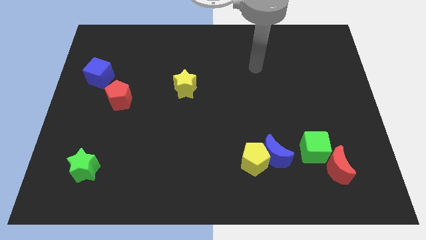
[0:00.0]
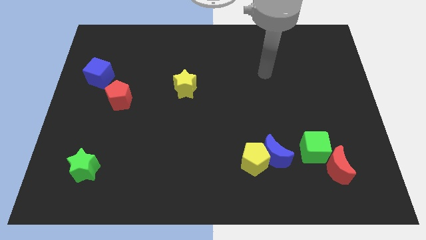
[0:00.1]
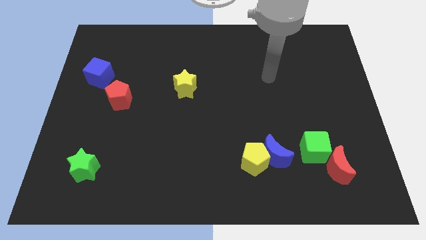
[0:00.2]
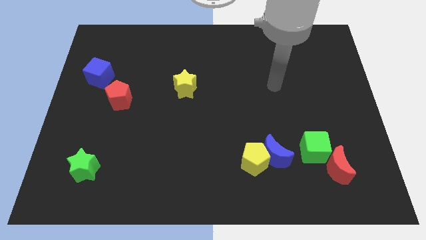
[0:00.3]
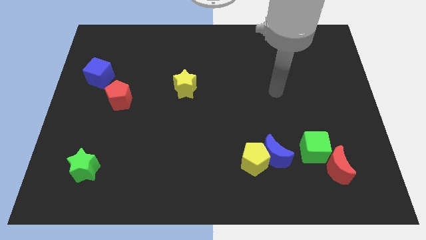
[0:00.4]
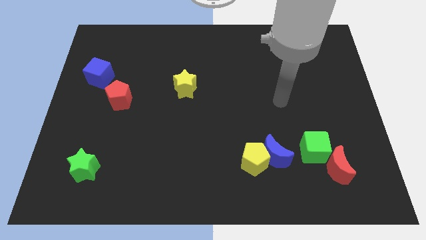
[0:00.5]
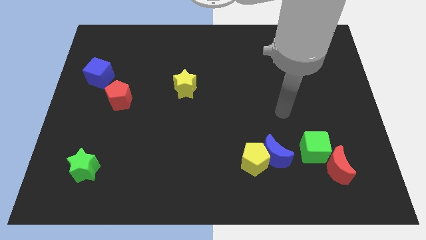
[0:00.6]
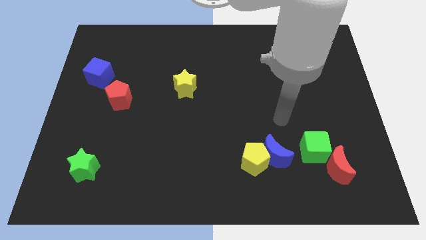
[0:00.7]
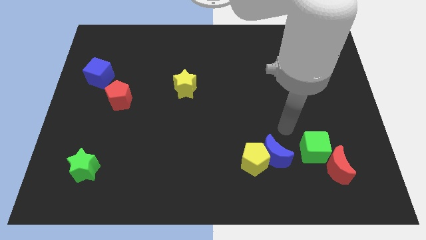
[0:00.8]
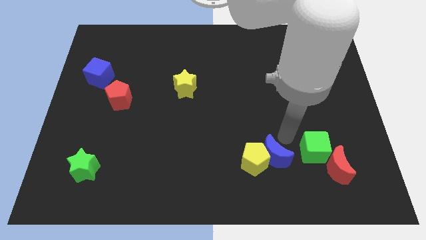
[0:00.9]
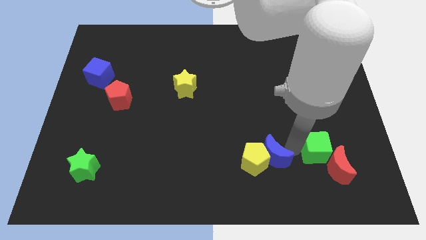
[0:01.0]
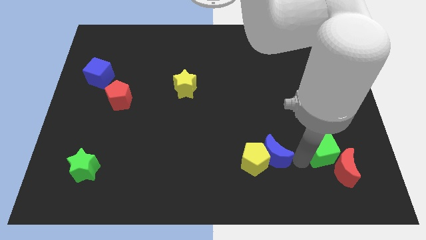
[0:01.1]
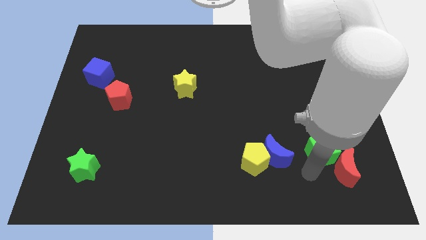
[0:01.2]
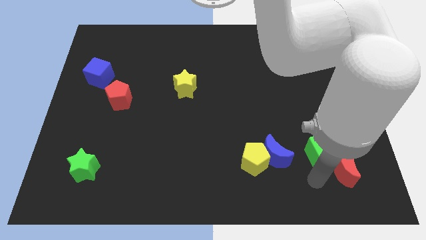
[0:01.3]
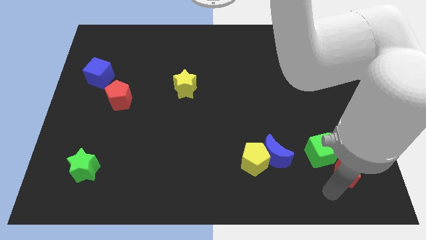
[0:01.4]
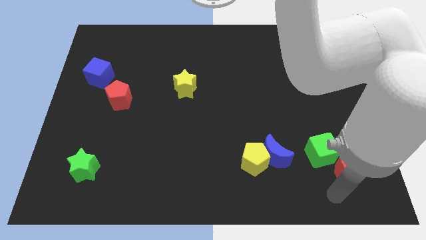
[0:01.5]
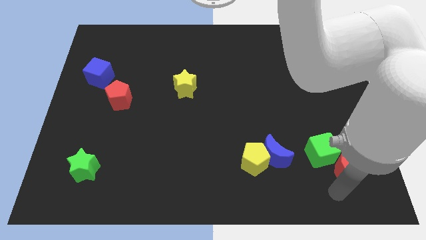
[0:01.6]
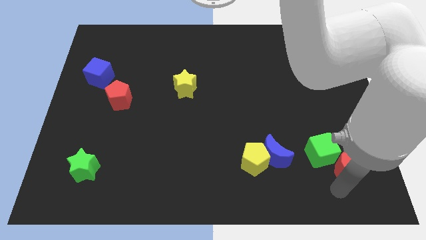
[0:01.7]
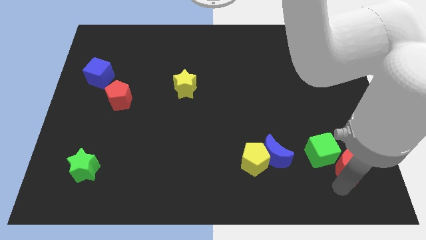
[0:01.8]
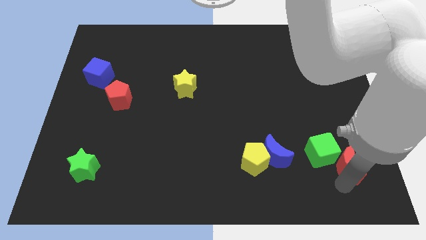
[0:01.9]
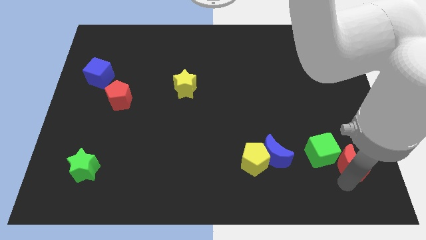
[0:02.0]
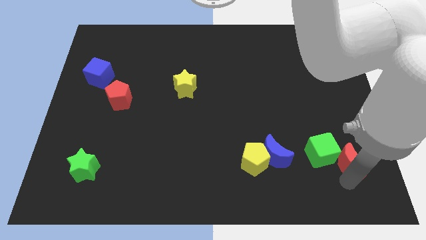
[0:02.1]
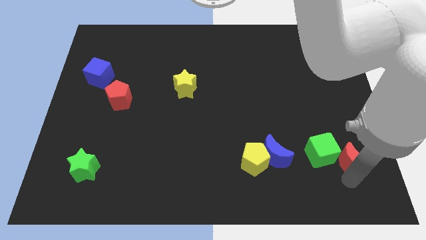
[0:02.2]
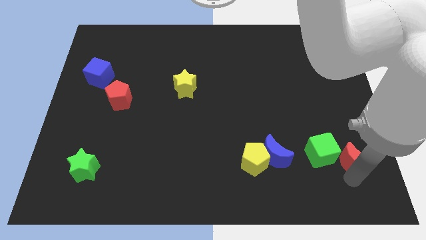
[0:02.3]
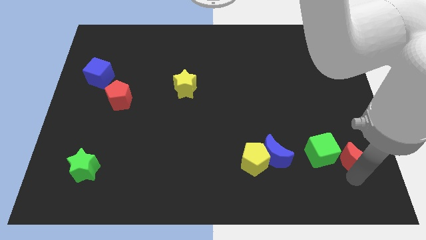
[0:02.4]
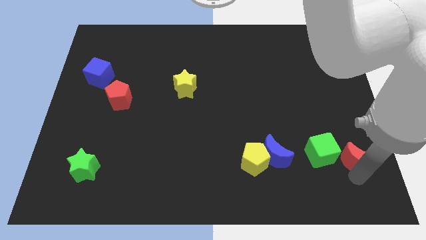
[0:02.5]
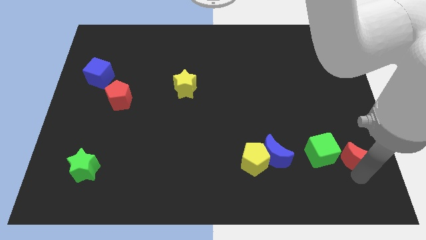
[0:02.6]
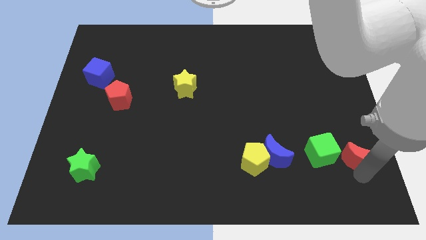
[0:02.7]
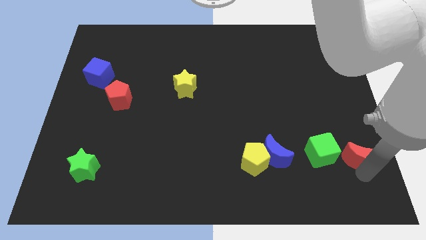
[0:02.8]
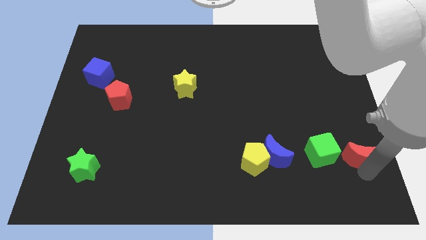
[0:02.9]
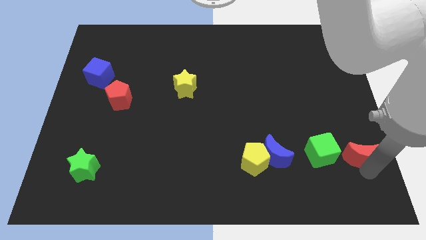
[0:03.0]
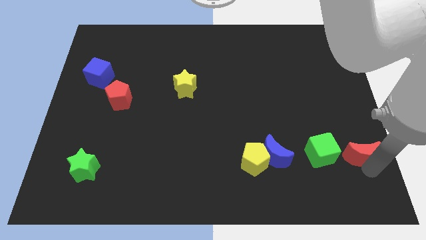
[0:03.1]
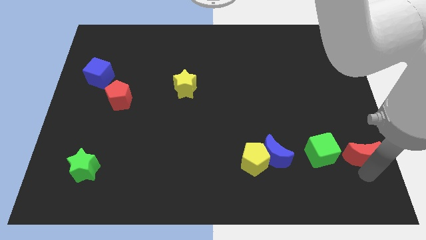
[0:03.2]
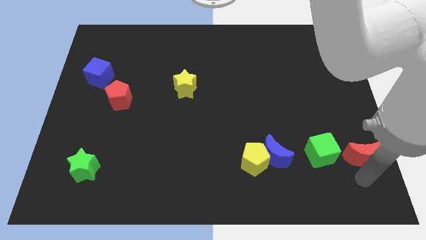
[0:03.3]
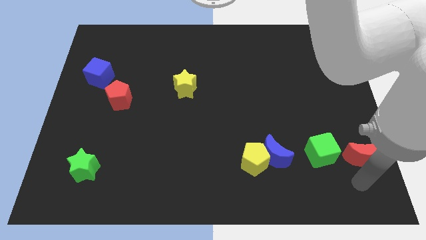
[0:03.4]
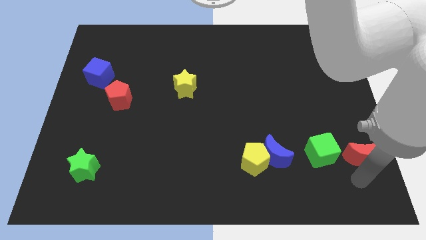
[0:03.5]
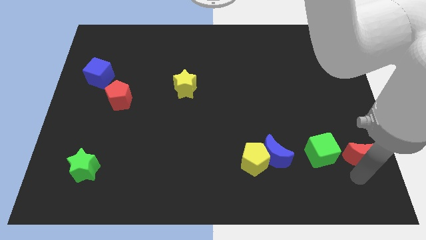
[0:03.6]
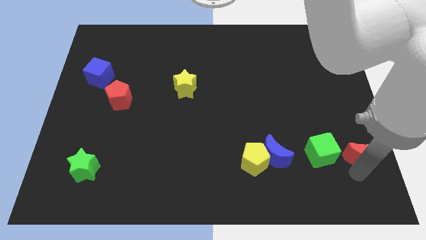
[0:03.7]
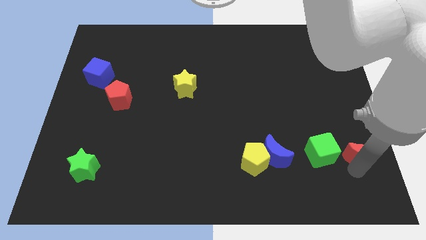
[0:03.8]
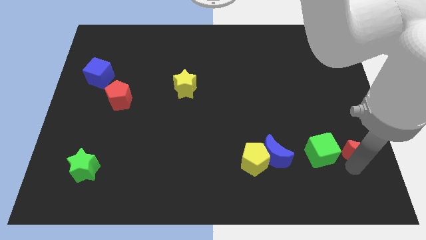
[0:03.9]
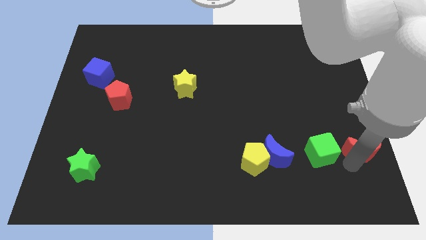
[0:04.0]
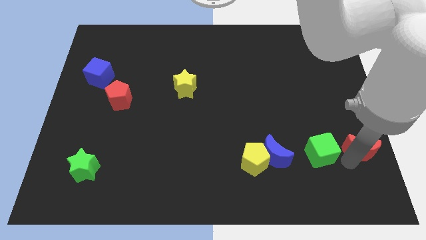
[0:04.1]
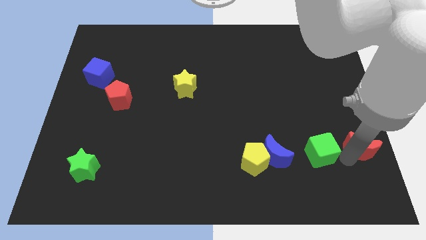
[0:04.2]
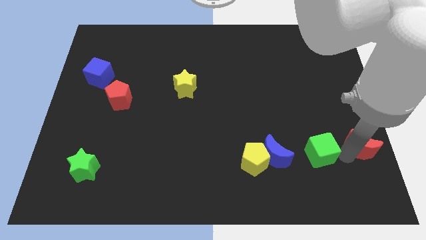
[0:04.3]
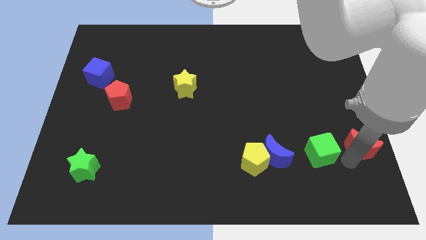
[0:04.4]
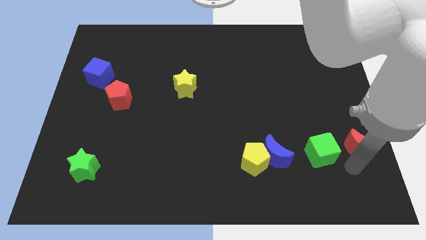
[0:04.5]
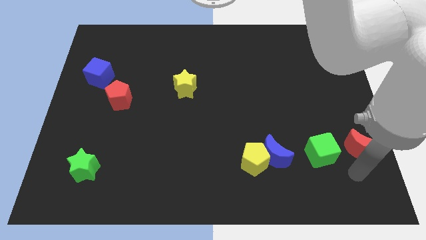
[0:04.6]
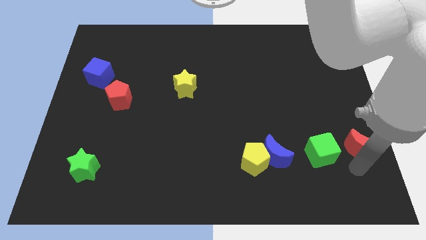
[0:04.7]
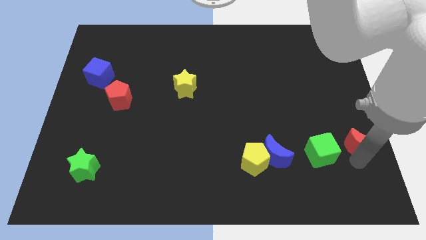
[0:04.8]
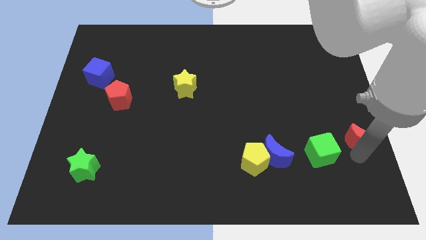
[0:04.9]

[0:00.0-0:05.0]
push the red moon to the right side

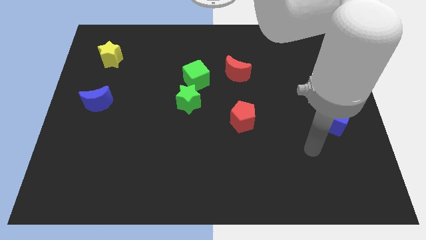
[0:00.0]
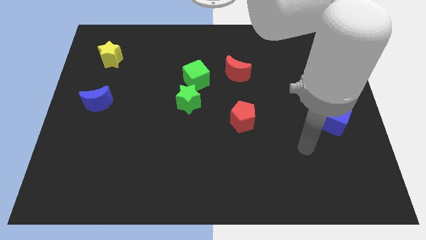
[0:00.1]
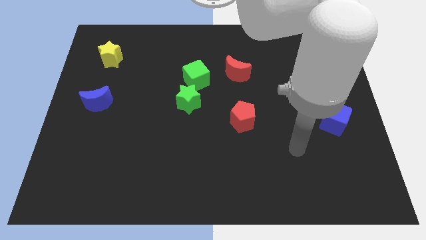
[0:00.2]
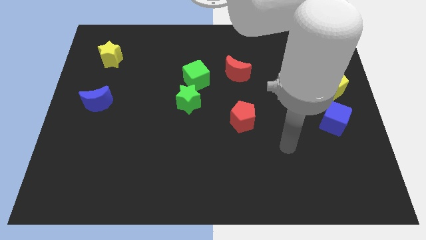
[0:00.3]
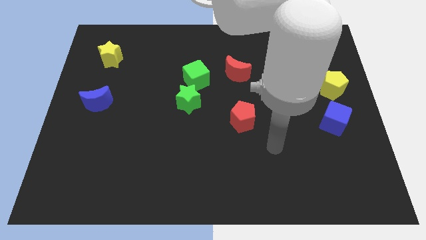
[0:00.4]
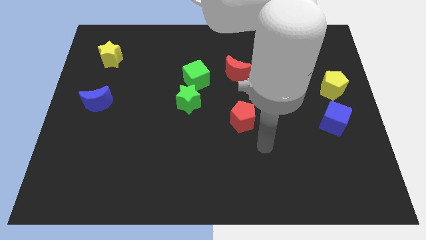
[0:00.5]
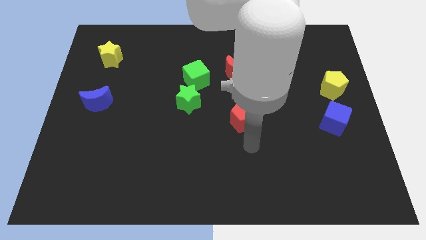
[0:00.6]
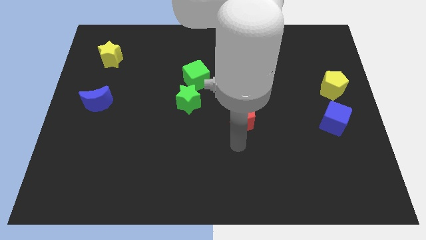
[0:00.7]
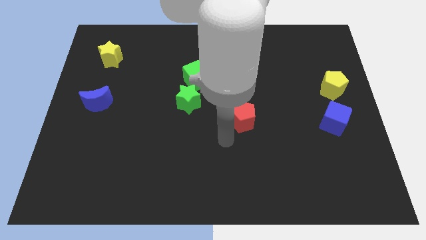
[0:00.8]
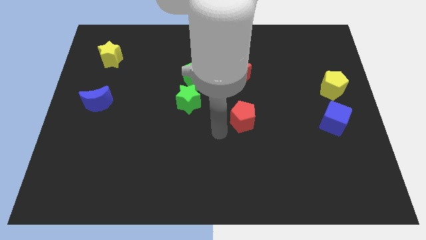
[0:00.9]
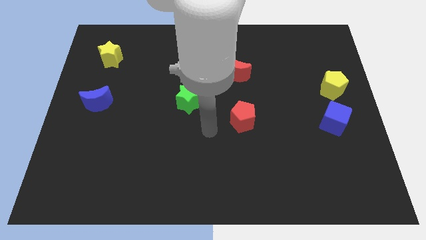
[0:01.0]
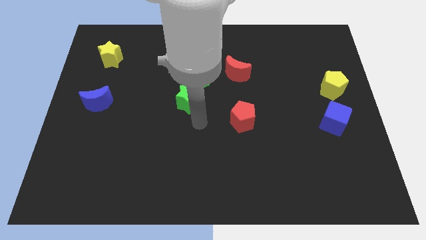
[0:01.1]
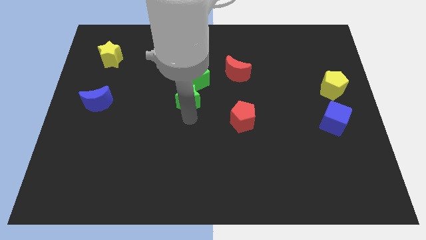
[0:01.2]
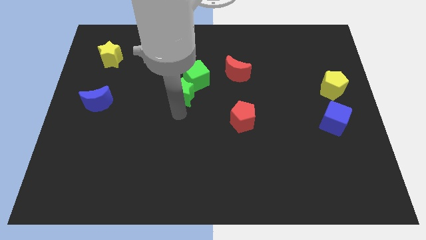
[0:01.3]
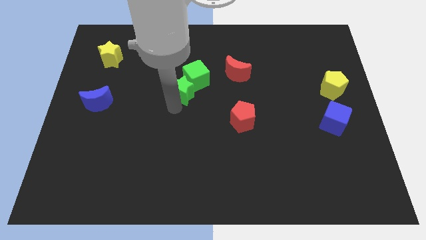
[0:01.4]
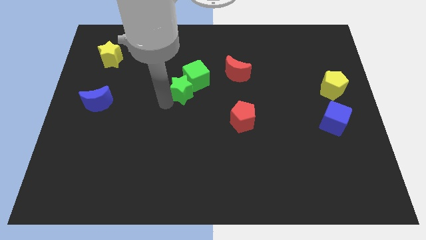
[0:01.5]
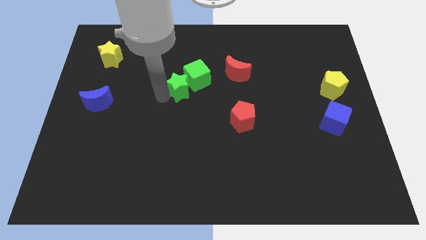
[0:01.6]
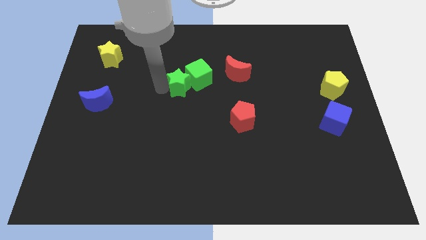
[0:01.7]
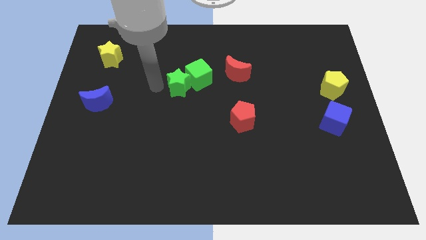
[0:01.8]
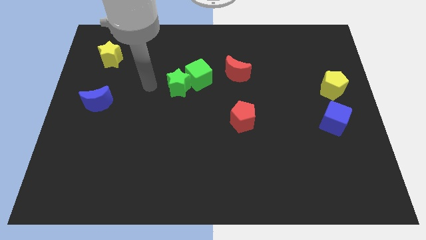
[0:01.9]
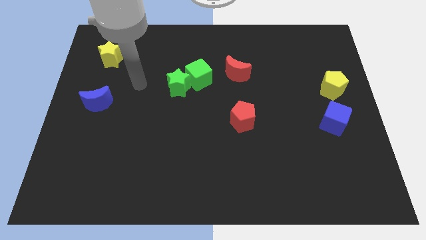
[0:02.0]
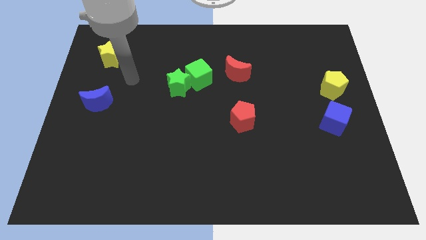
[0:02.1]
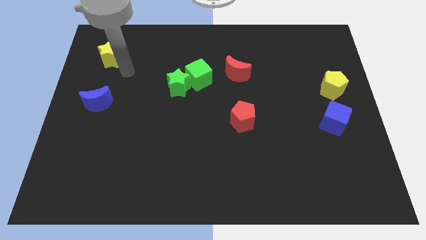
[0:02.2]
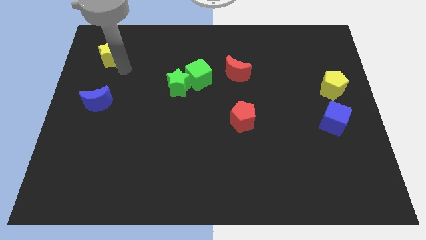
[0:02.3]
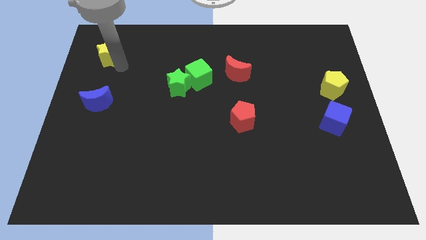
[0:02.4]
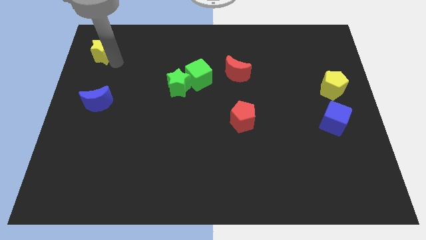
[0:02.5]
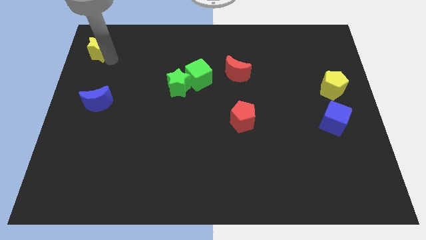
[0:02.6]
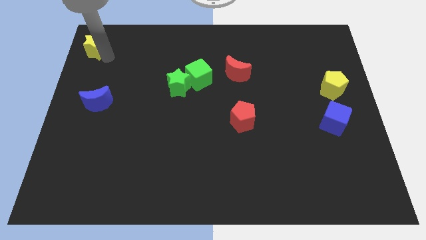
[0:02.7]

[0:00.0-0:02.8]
slide the yellow star to the top left
